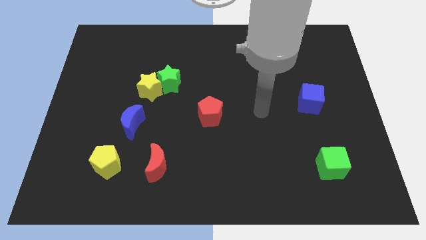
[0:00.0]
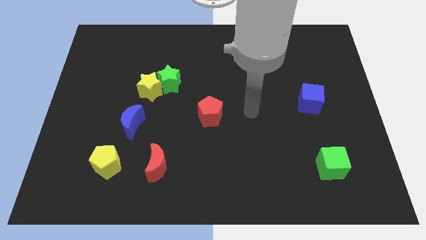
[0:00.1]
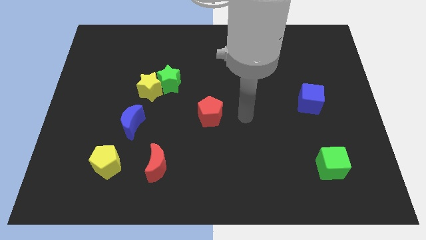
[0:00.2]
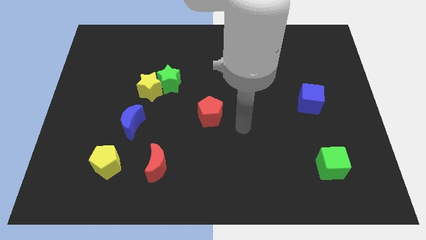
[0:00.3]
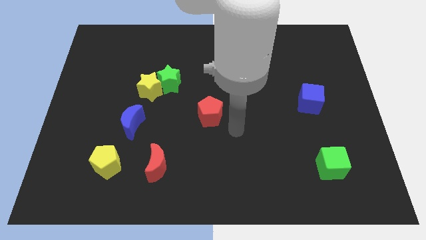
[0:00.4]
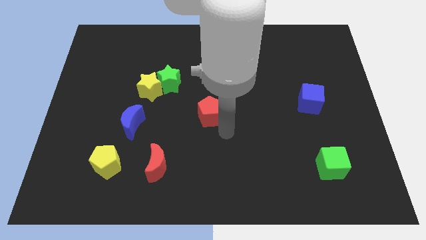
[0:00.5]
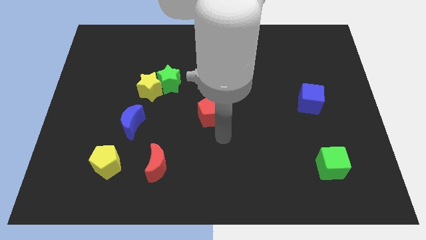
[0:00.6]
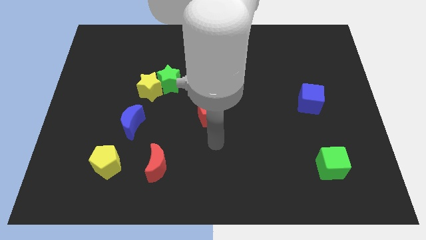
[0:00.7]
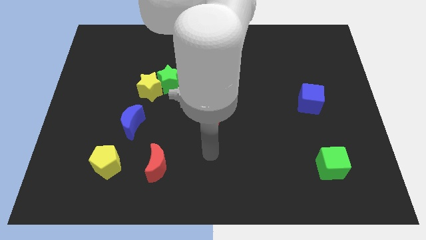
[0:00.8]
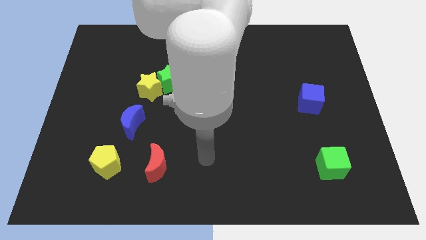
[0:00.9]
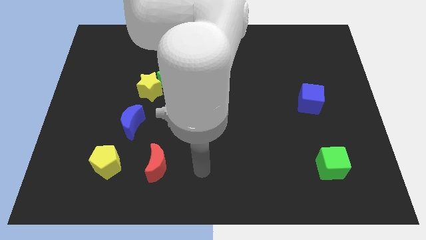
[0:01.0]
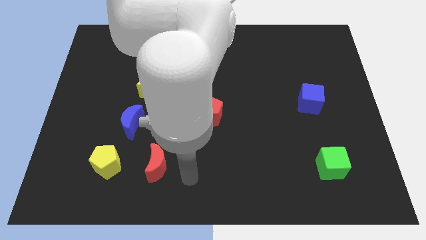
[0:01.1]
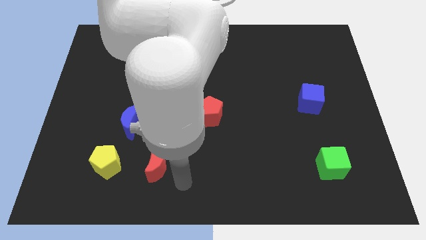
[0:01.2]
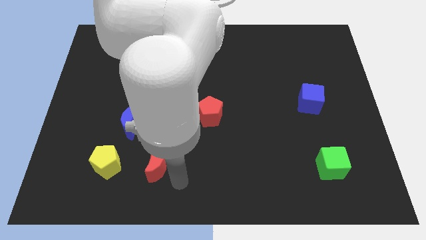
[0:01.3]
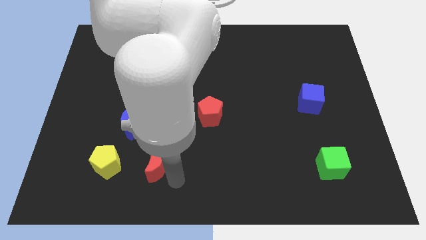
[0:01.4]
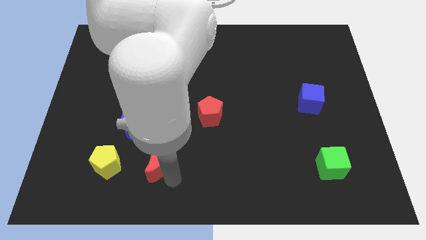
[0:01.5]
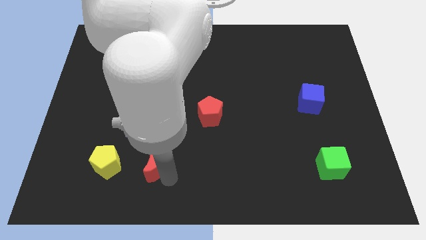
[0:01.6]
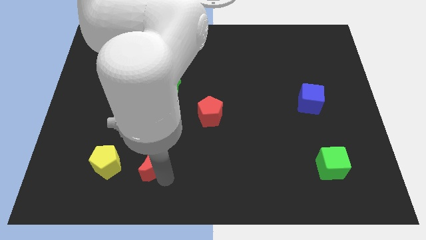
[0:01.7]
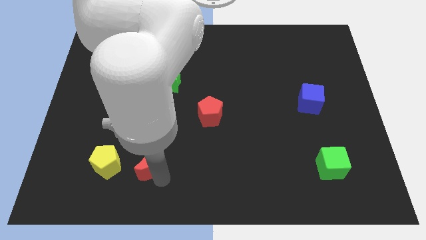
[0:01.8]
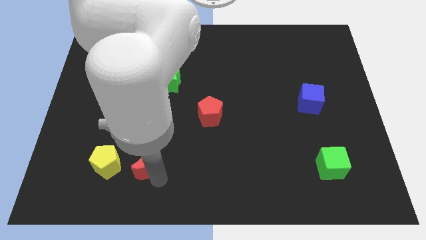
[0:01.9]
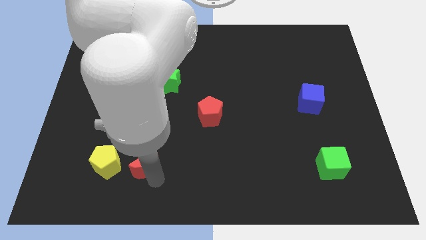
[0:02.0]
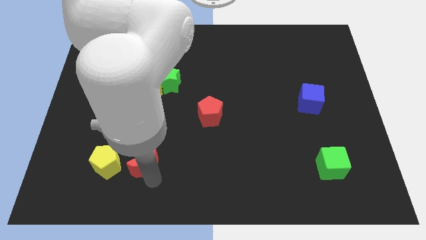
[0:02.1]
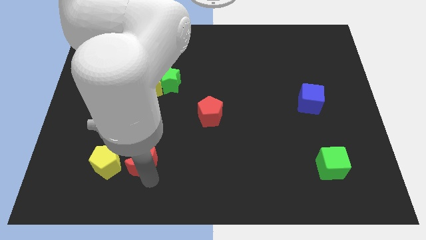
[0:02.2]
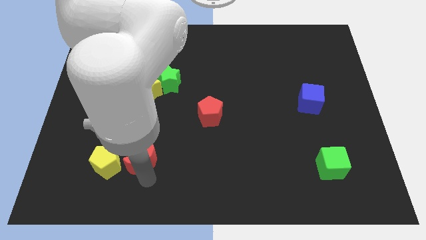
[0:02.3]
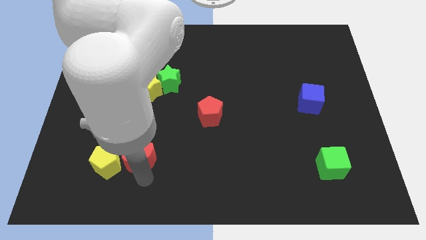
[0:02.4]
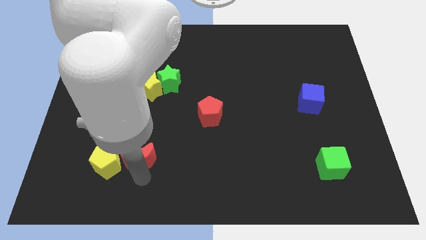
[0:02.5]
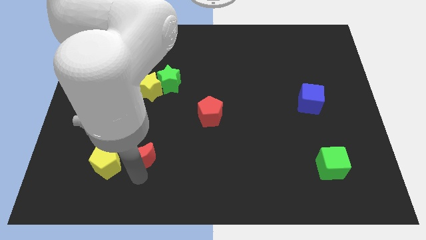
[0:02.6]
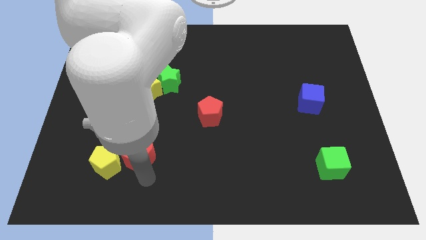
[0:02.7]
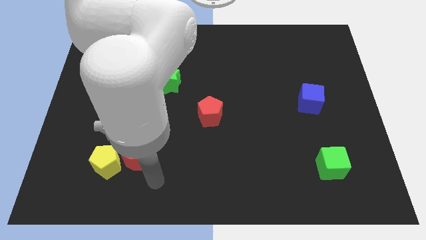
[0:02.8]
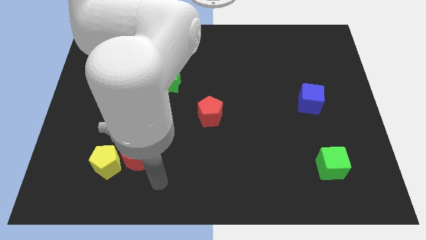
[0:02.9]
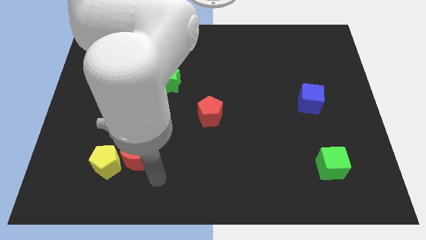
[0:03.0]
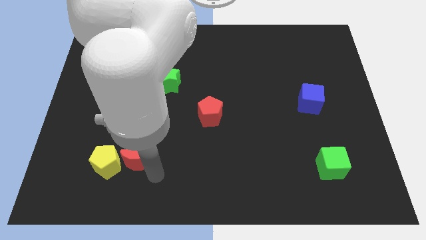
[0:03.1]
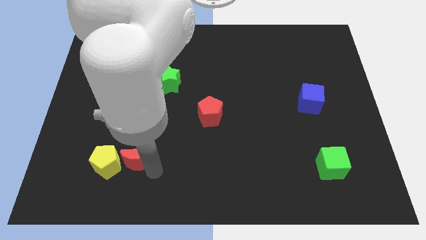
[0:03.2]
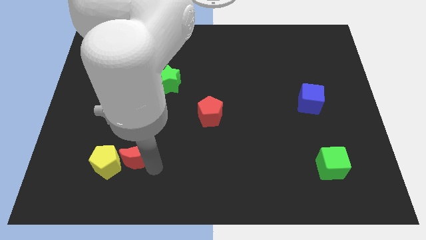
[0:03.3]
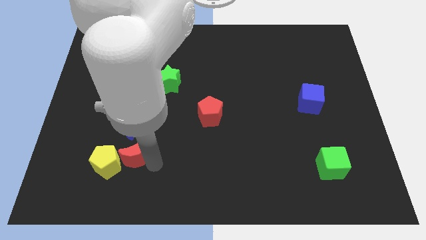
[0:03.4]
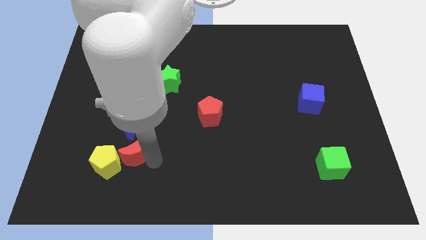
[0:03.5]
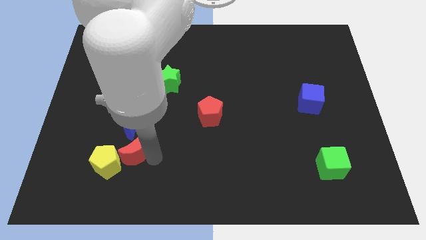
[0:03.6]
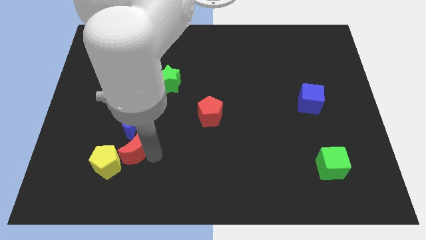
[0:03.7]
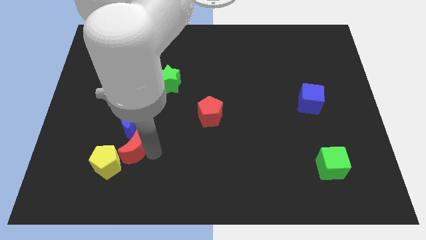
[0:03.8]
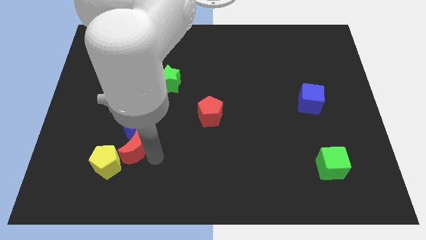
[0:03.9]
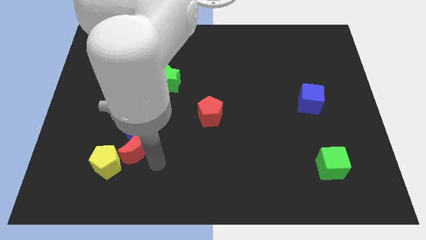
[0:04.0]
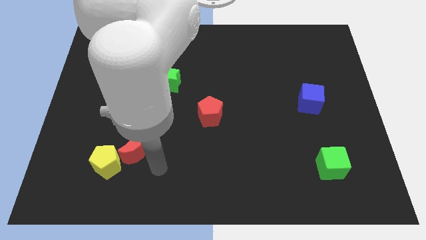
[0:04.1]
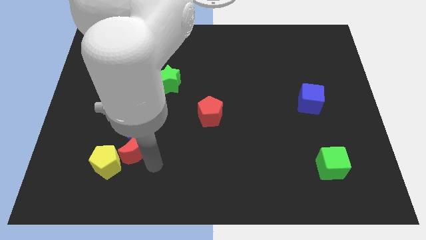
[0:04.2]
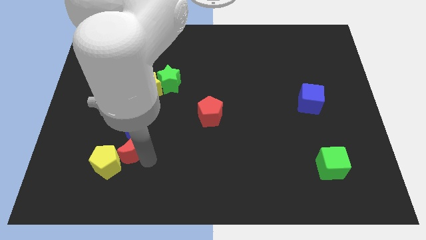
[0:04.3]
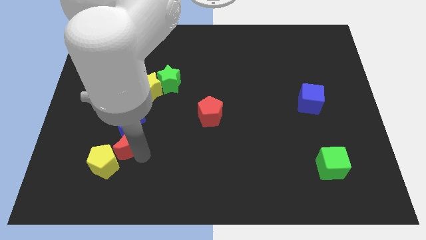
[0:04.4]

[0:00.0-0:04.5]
move the red moon somewhat diagonally upwards and left

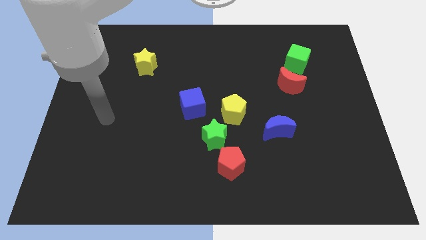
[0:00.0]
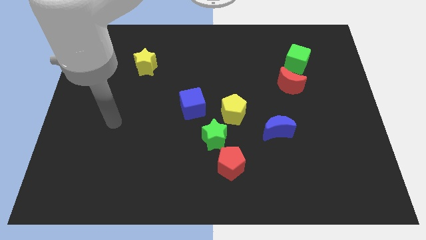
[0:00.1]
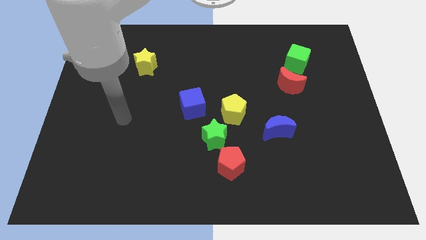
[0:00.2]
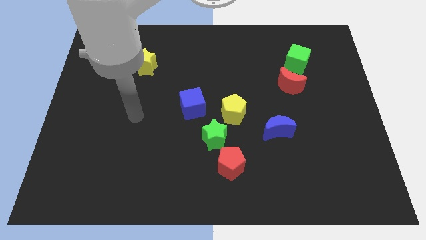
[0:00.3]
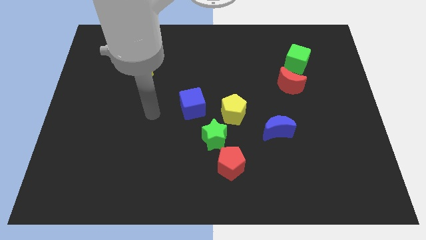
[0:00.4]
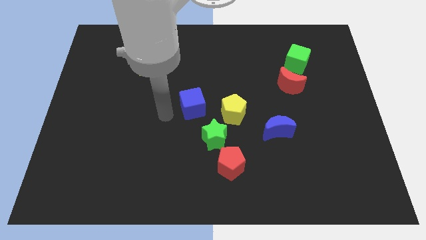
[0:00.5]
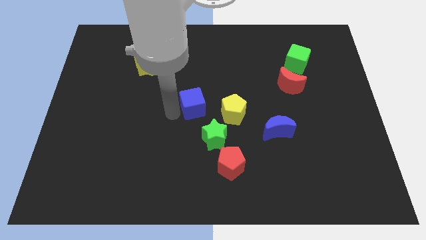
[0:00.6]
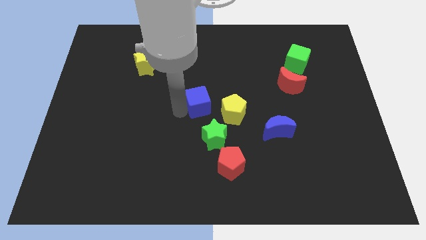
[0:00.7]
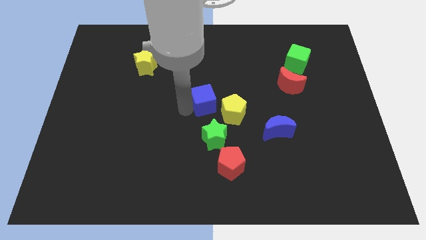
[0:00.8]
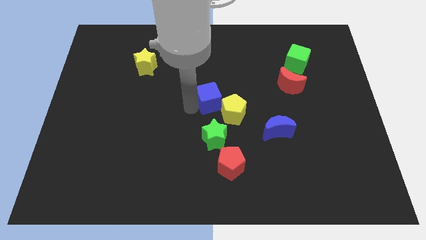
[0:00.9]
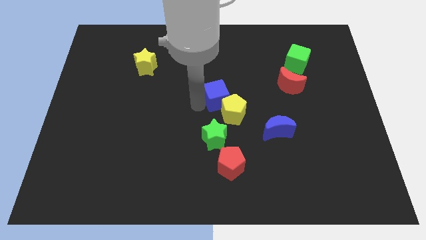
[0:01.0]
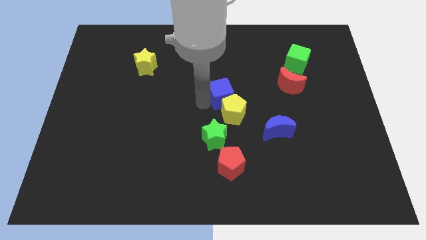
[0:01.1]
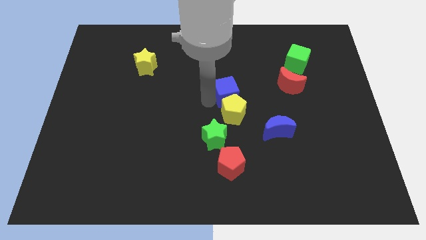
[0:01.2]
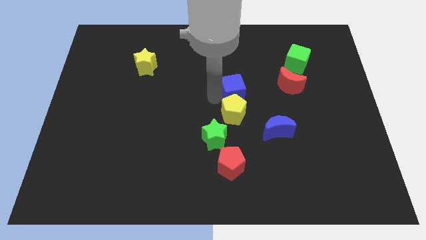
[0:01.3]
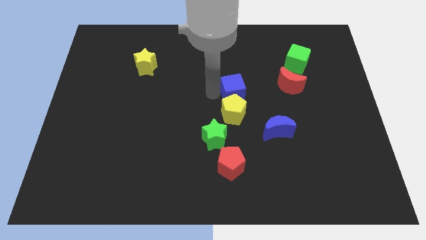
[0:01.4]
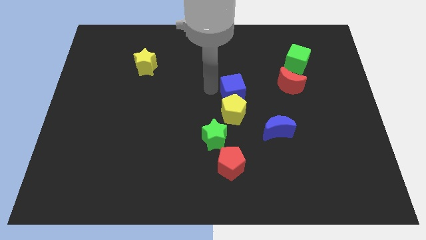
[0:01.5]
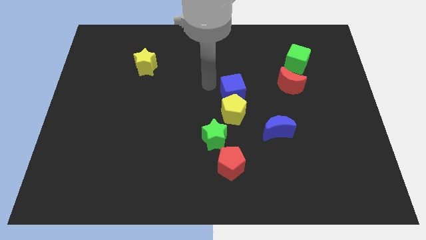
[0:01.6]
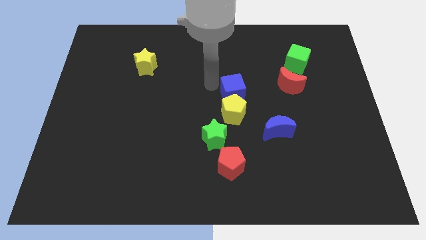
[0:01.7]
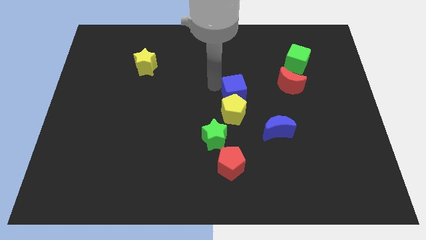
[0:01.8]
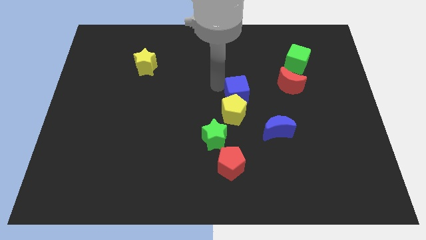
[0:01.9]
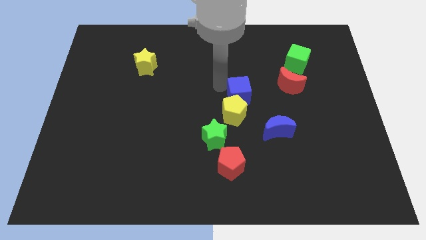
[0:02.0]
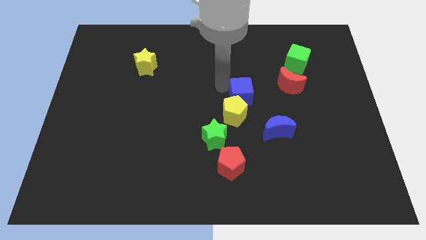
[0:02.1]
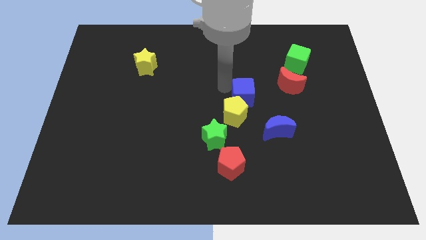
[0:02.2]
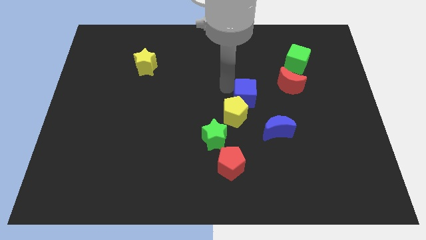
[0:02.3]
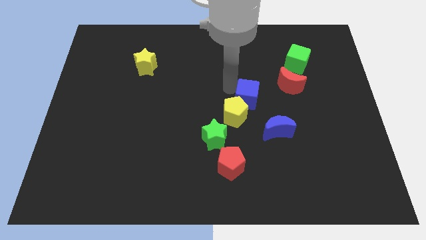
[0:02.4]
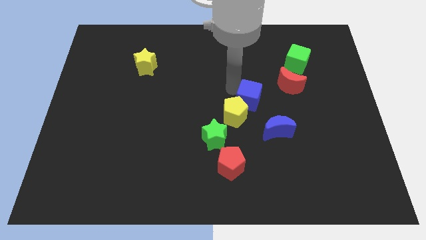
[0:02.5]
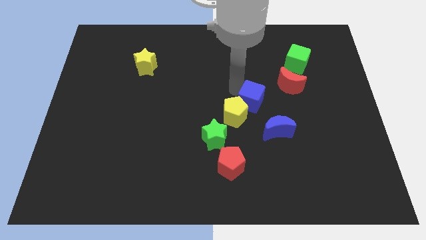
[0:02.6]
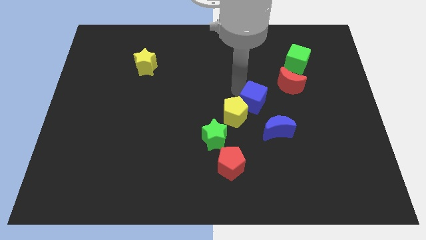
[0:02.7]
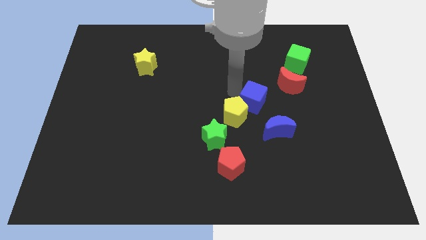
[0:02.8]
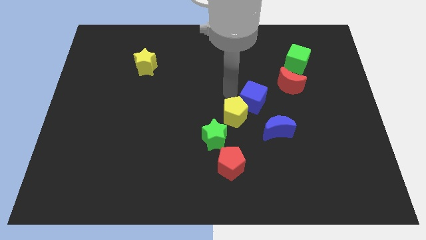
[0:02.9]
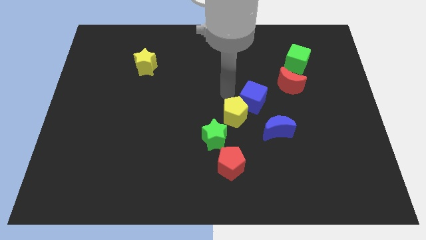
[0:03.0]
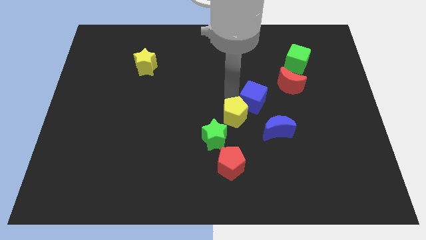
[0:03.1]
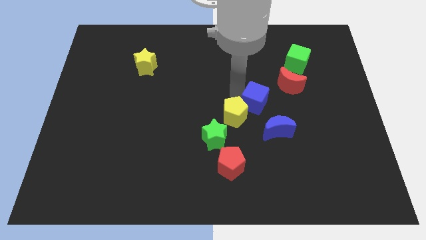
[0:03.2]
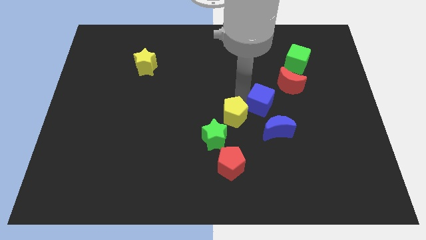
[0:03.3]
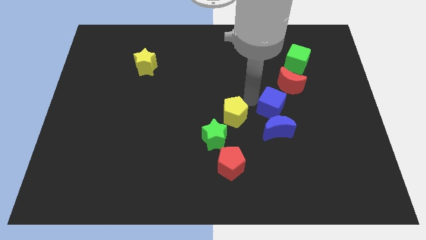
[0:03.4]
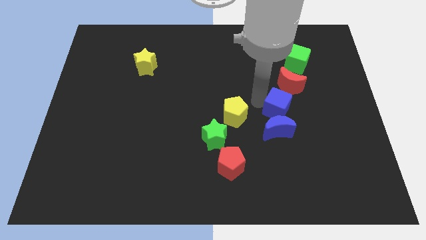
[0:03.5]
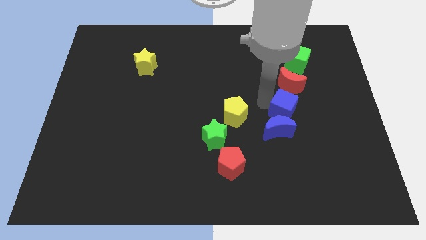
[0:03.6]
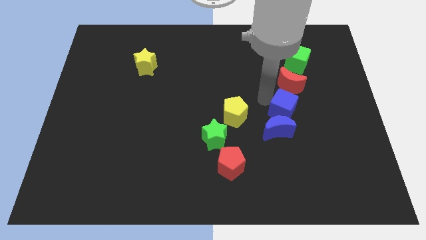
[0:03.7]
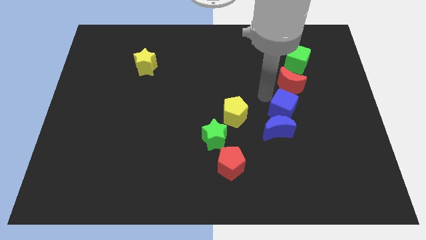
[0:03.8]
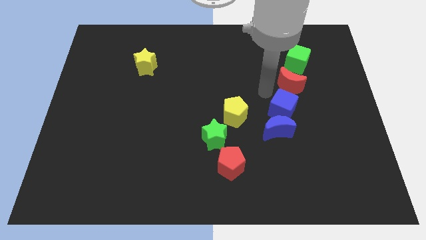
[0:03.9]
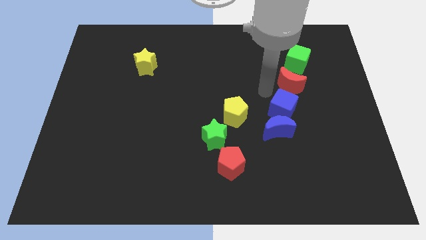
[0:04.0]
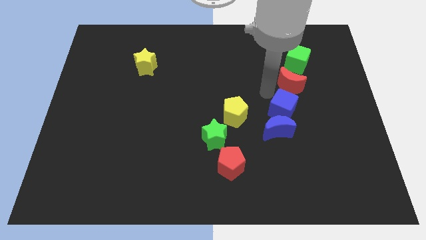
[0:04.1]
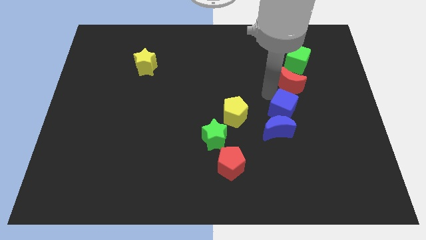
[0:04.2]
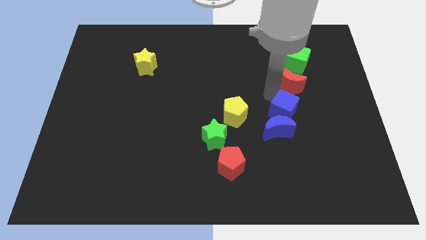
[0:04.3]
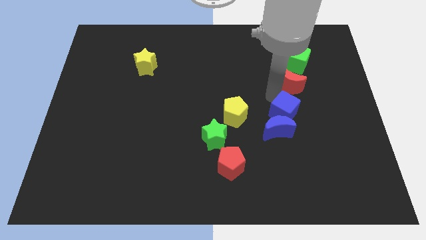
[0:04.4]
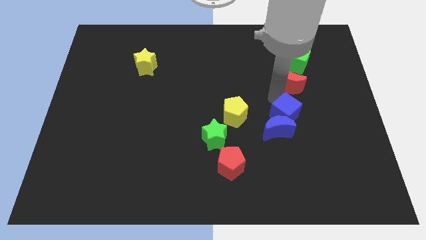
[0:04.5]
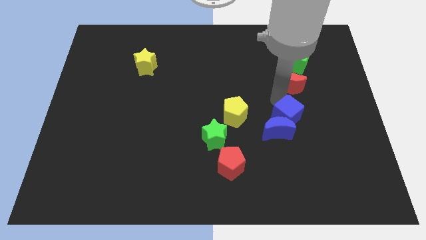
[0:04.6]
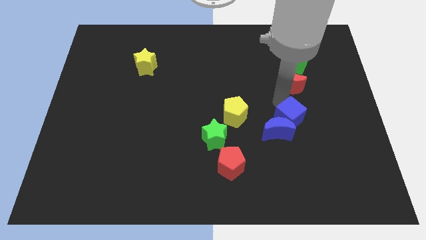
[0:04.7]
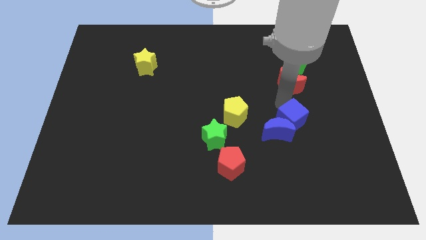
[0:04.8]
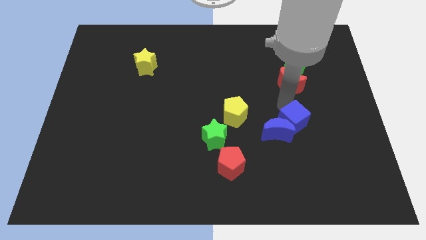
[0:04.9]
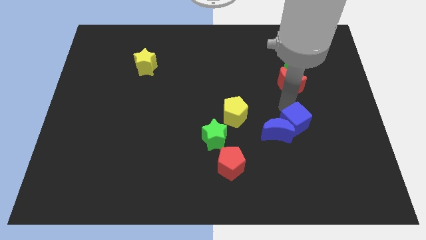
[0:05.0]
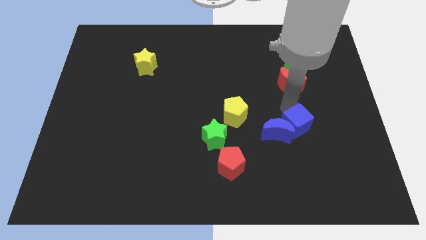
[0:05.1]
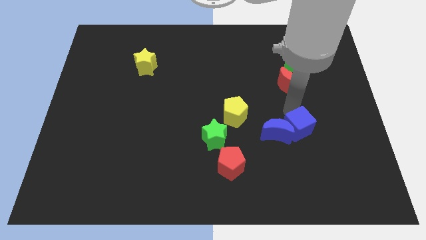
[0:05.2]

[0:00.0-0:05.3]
move the blue cube down and then right somewhat
